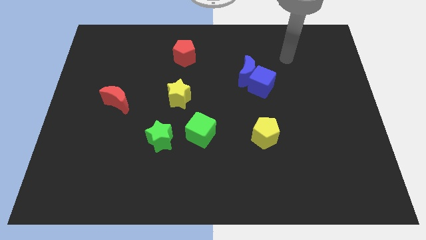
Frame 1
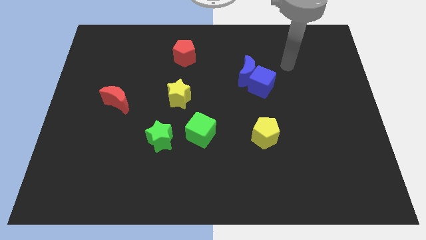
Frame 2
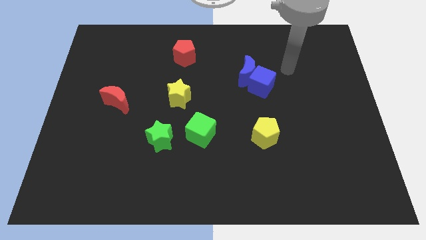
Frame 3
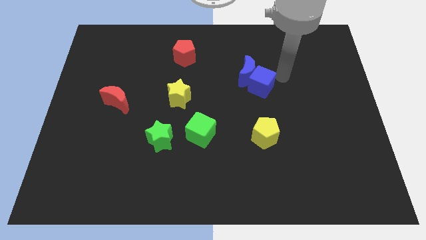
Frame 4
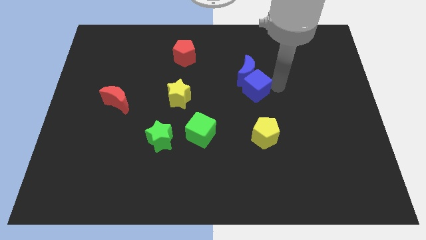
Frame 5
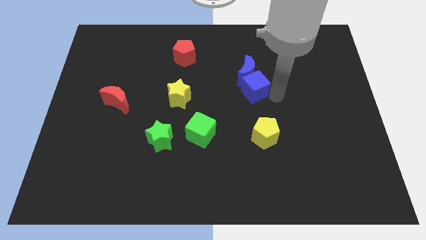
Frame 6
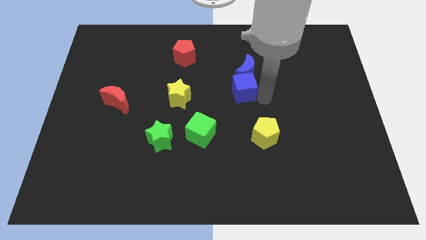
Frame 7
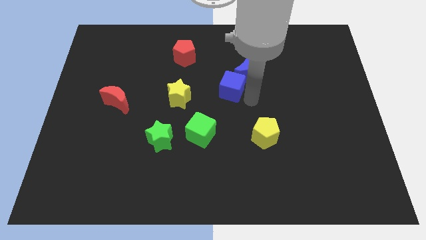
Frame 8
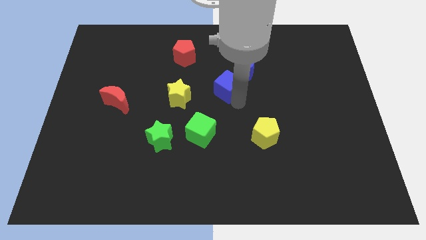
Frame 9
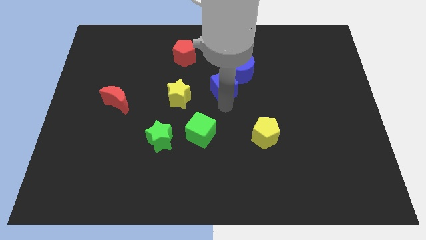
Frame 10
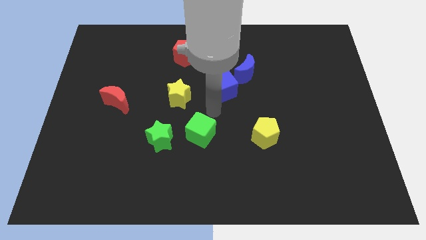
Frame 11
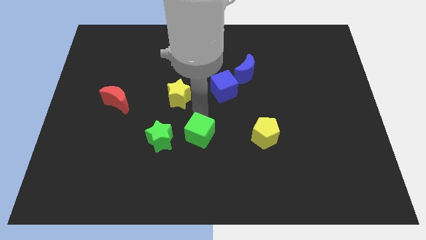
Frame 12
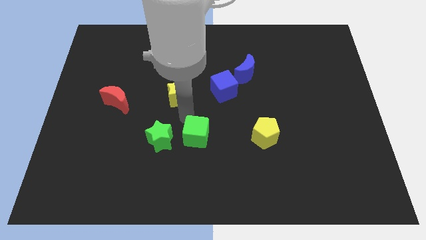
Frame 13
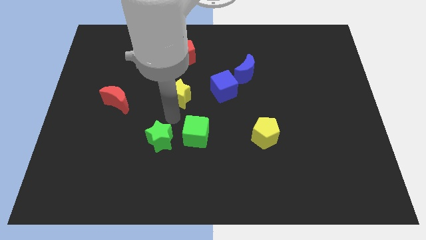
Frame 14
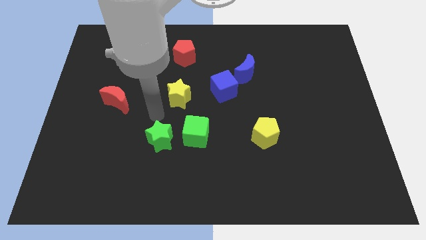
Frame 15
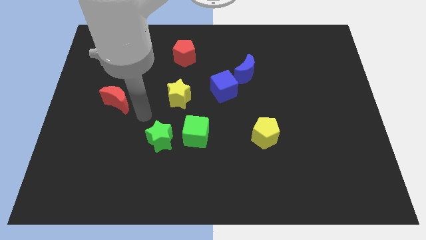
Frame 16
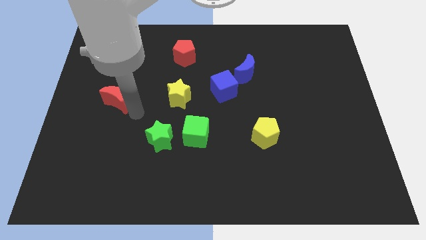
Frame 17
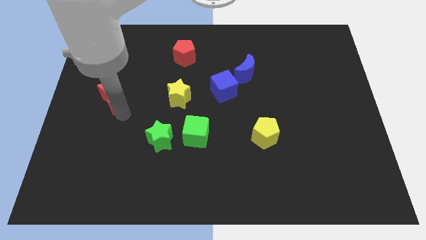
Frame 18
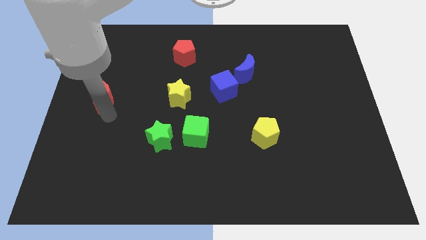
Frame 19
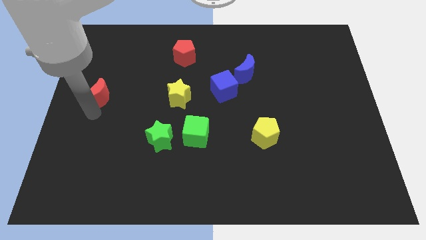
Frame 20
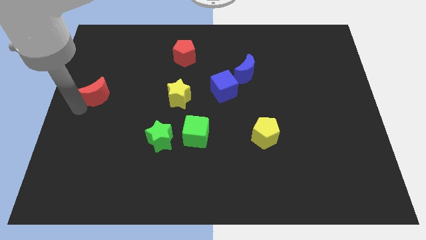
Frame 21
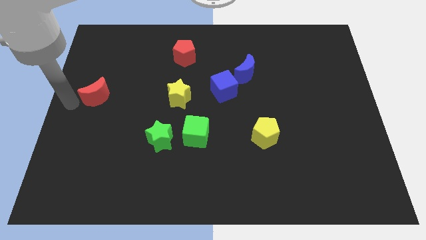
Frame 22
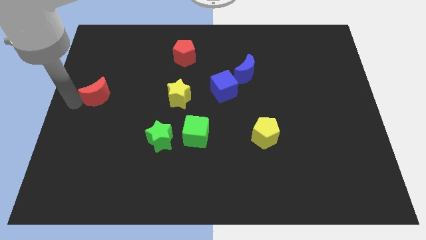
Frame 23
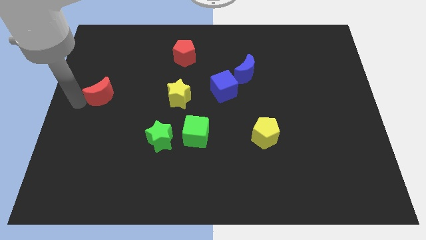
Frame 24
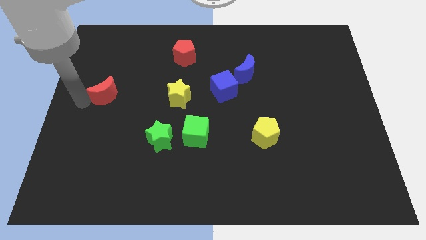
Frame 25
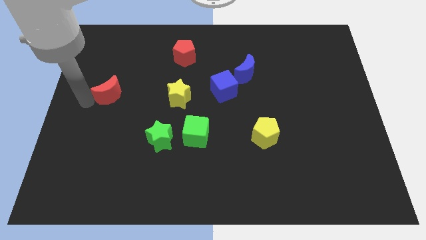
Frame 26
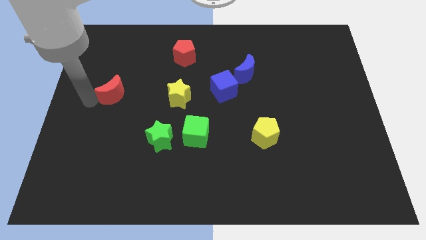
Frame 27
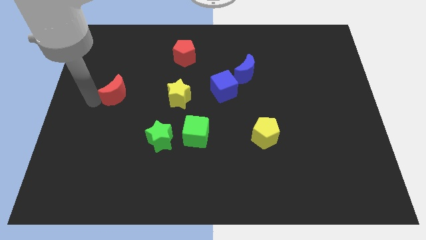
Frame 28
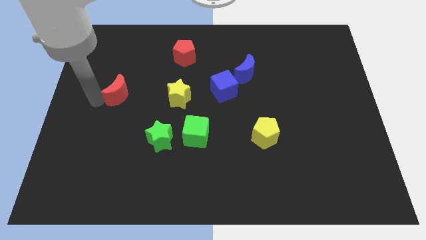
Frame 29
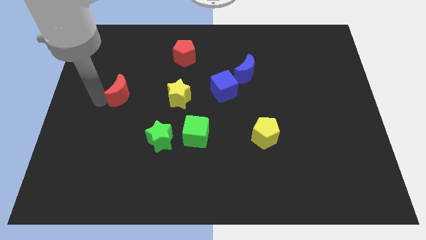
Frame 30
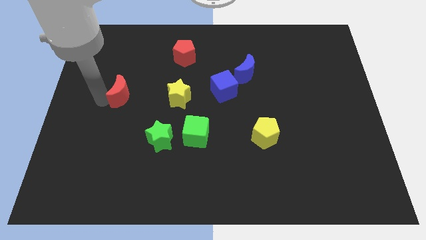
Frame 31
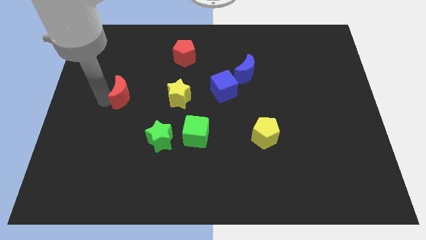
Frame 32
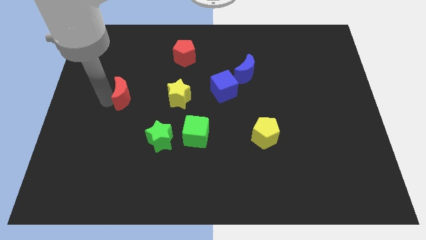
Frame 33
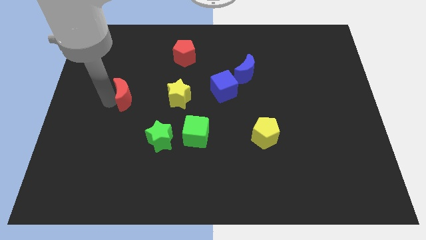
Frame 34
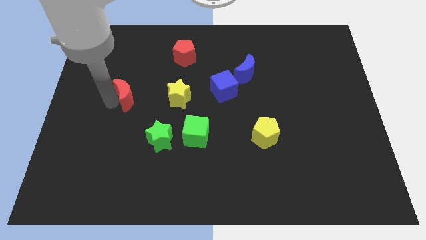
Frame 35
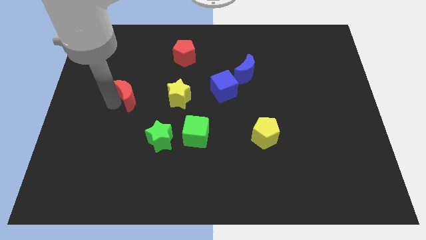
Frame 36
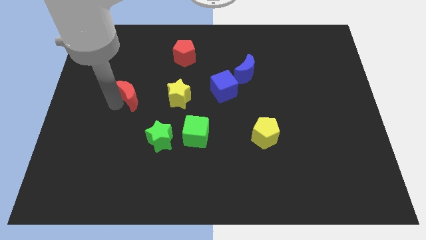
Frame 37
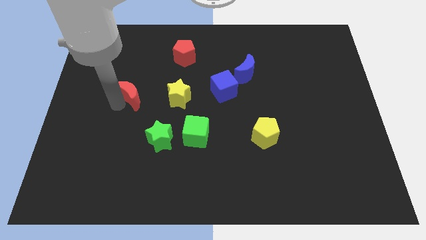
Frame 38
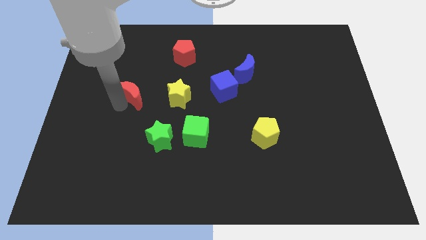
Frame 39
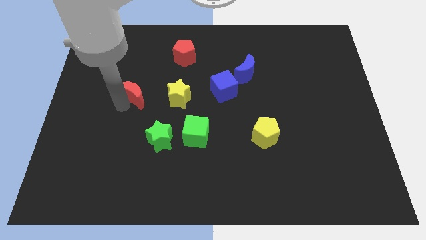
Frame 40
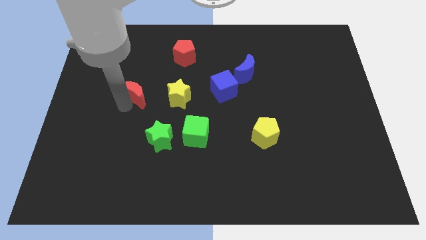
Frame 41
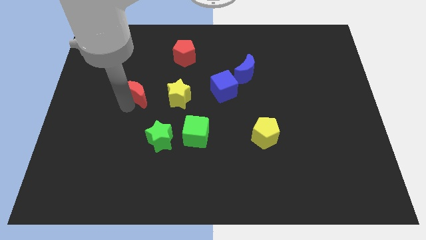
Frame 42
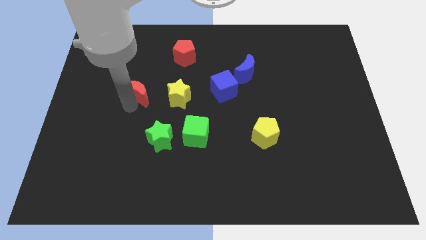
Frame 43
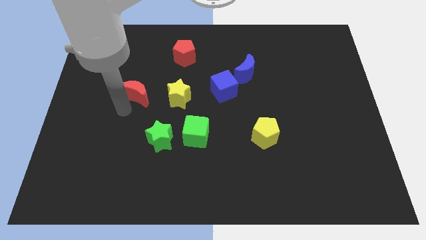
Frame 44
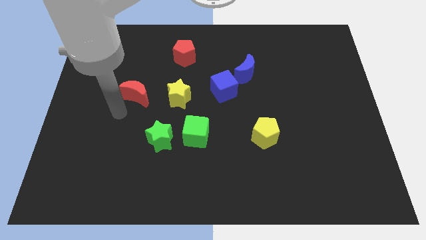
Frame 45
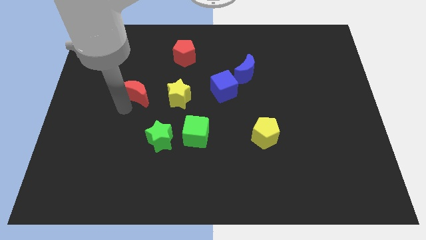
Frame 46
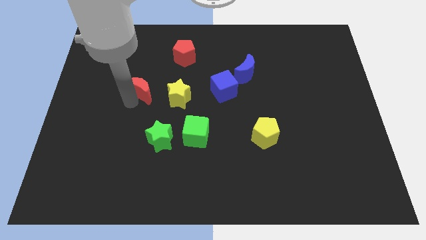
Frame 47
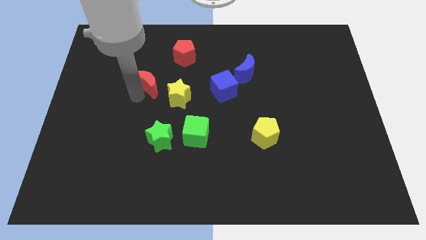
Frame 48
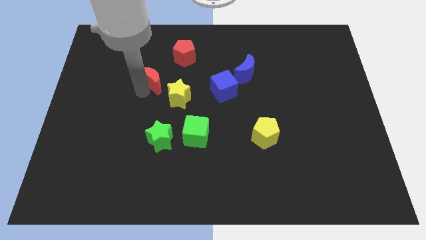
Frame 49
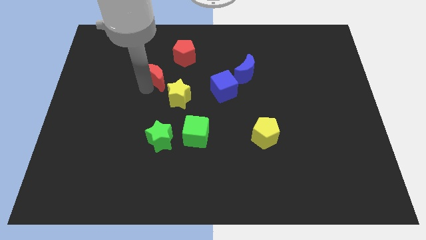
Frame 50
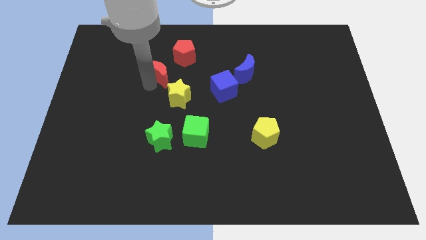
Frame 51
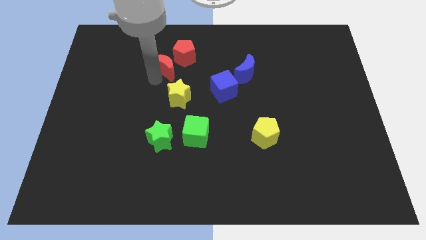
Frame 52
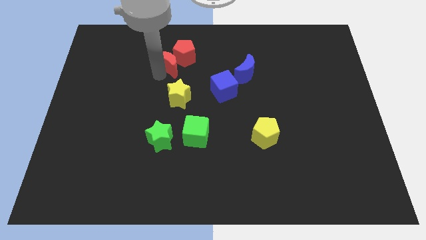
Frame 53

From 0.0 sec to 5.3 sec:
move the red moon to the red pentagon

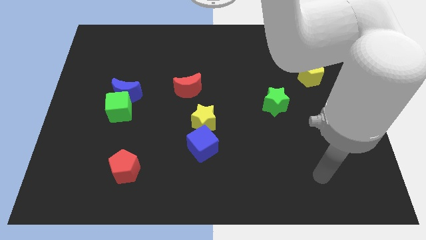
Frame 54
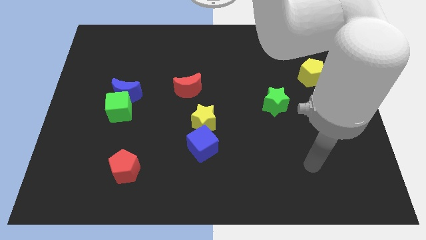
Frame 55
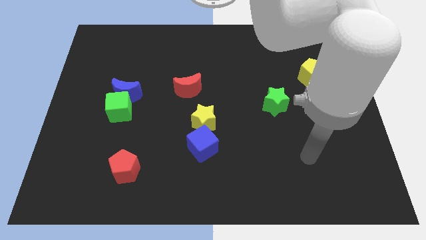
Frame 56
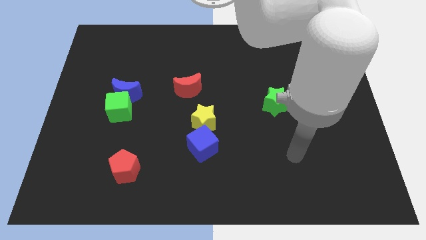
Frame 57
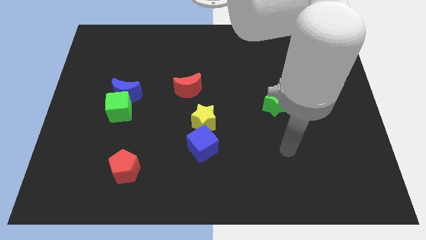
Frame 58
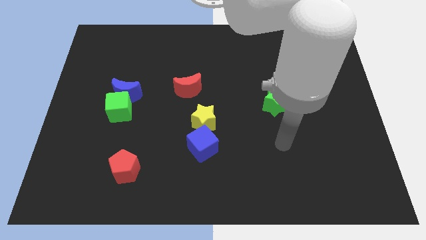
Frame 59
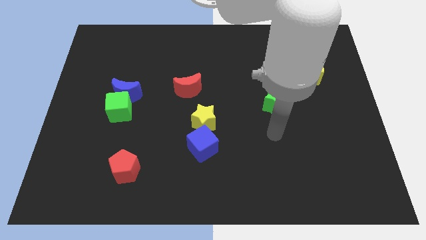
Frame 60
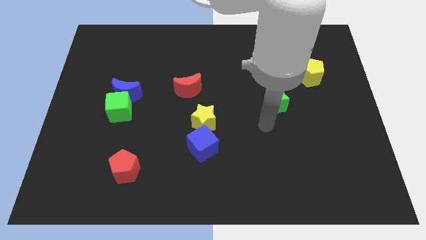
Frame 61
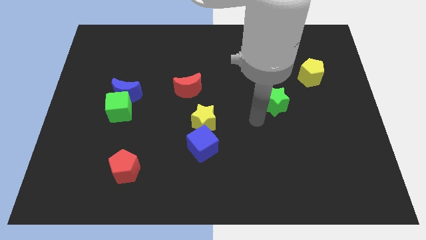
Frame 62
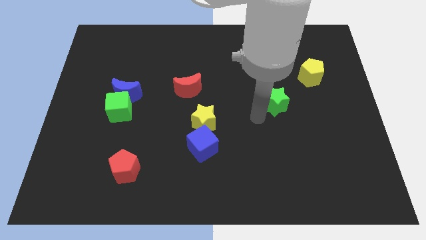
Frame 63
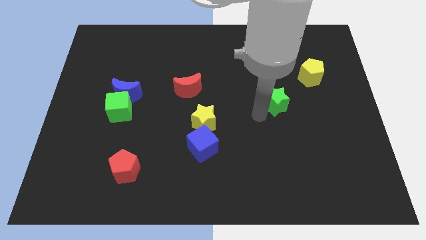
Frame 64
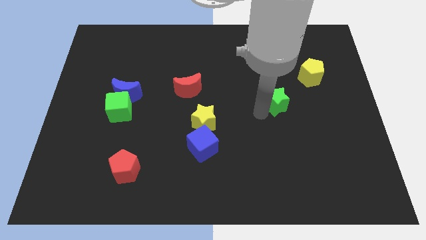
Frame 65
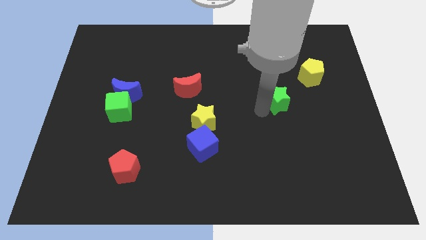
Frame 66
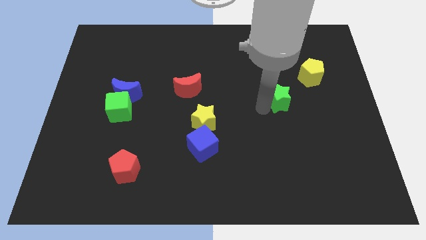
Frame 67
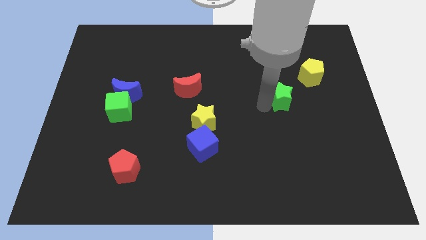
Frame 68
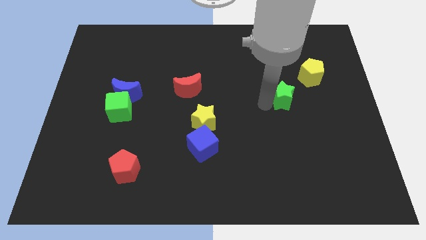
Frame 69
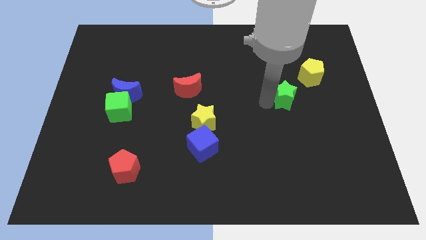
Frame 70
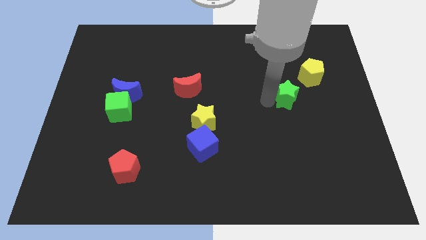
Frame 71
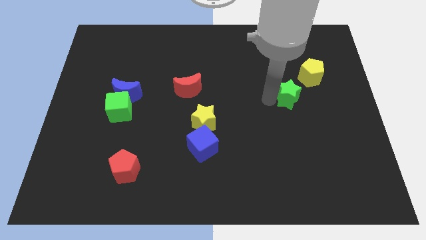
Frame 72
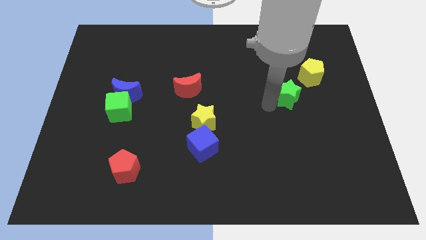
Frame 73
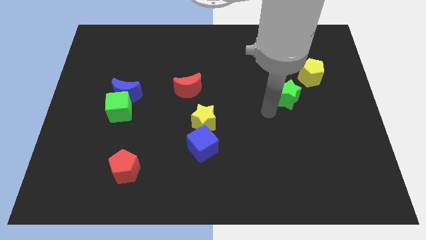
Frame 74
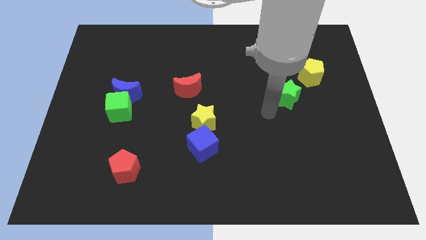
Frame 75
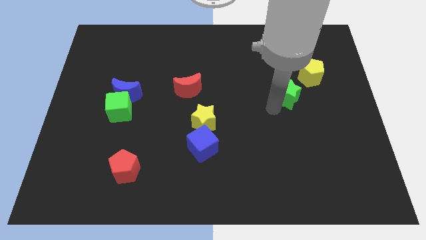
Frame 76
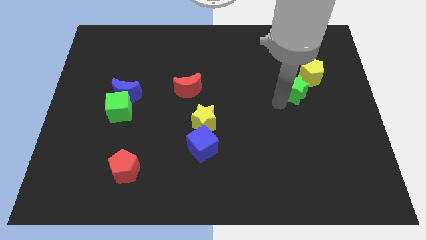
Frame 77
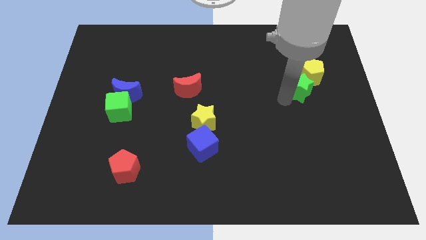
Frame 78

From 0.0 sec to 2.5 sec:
push the green star to the yellow pentagon
